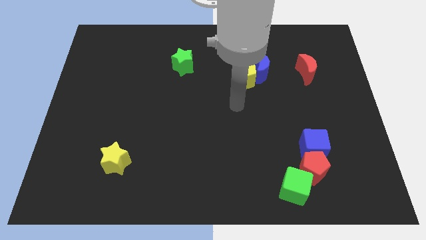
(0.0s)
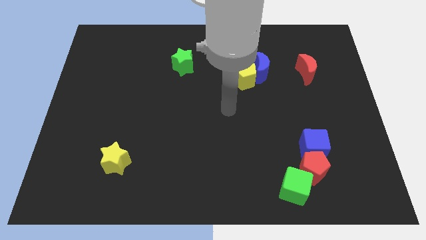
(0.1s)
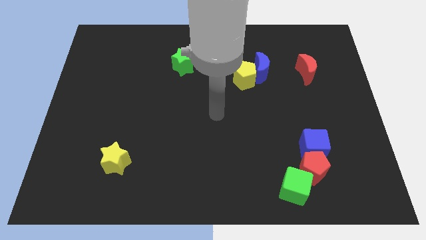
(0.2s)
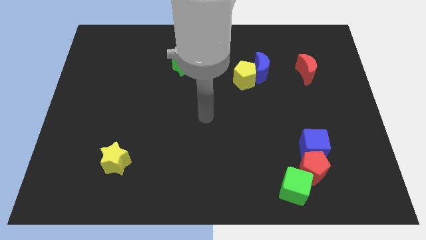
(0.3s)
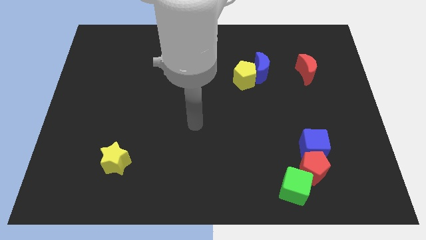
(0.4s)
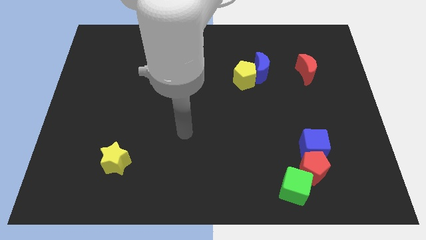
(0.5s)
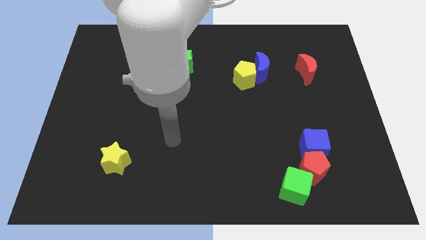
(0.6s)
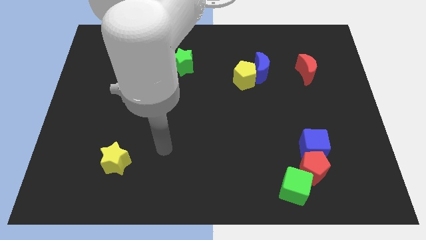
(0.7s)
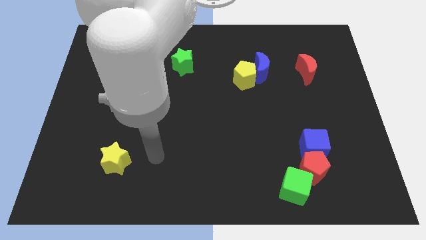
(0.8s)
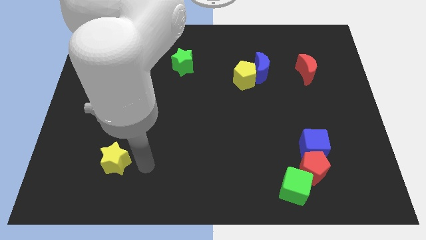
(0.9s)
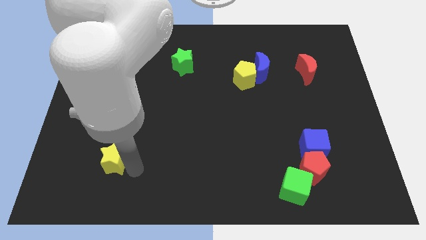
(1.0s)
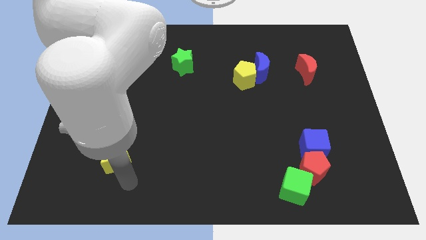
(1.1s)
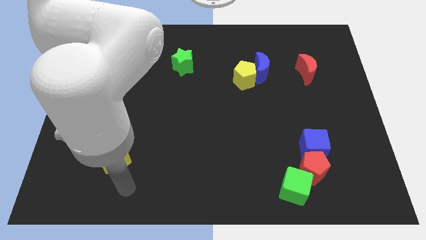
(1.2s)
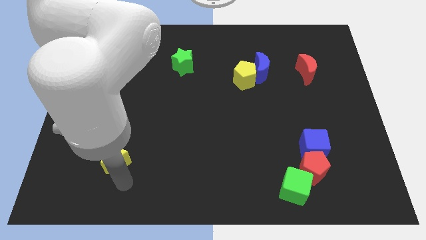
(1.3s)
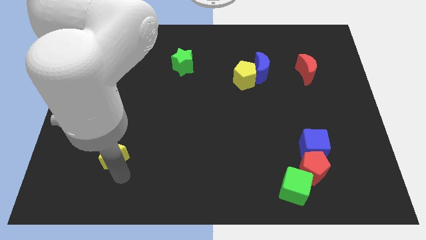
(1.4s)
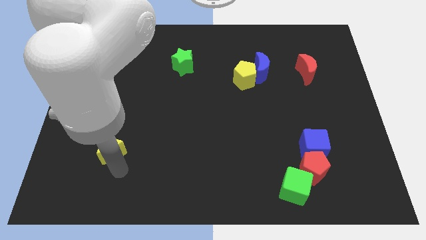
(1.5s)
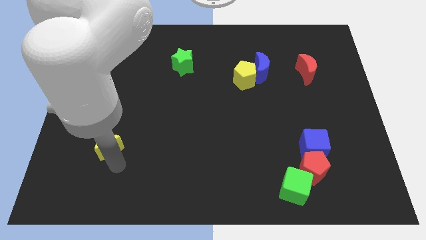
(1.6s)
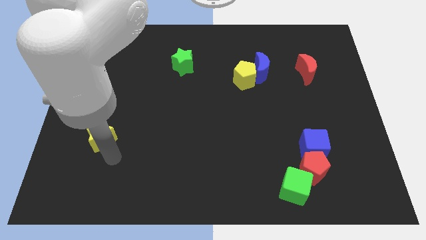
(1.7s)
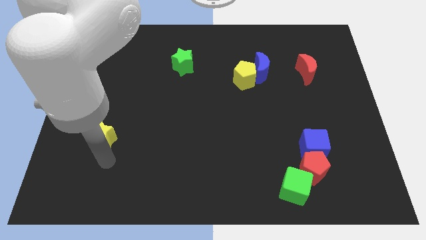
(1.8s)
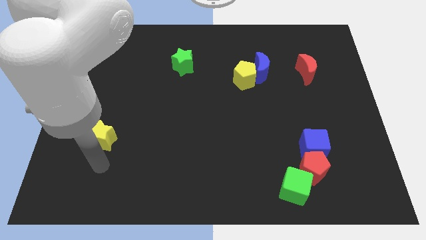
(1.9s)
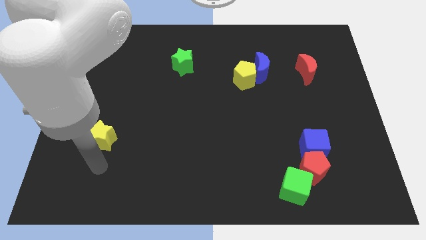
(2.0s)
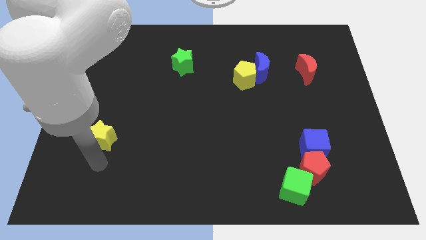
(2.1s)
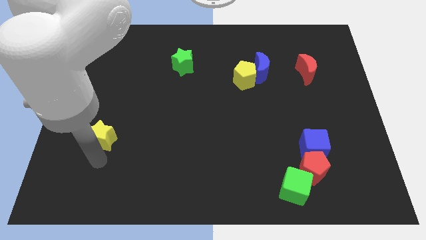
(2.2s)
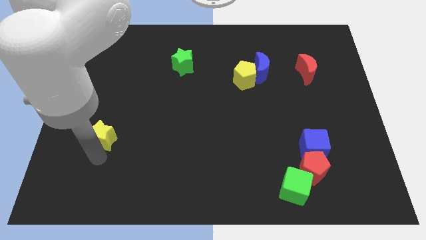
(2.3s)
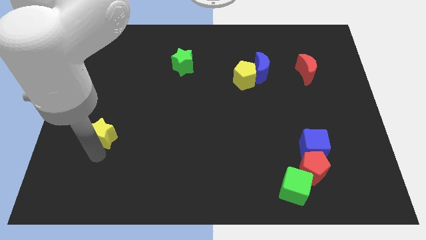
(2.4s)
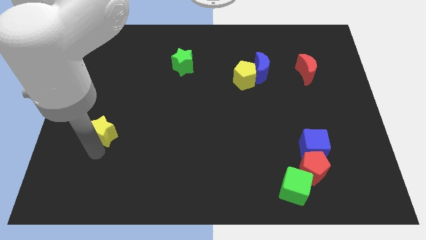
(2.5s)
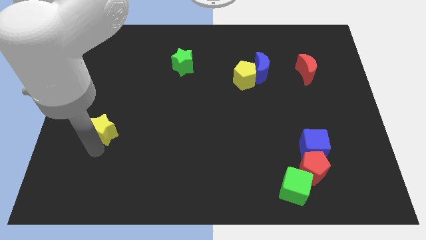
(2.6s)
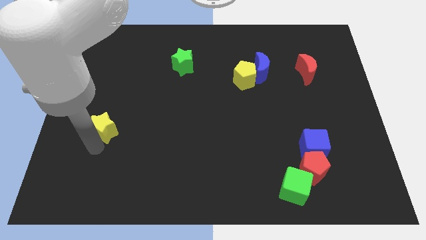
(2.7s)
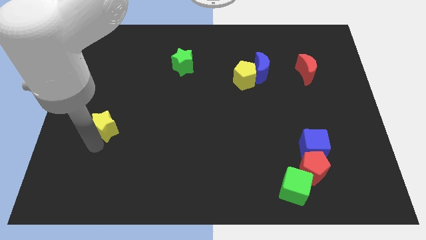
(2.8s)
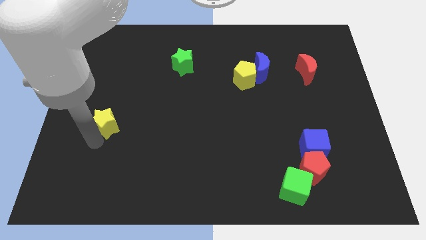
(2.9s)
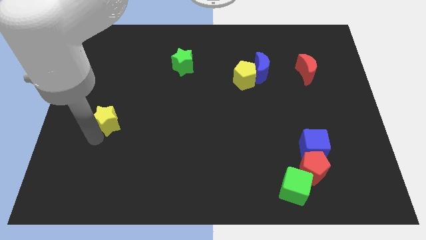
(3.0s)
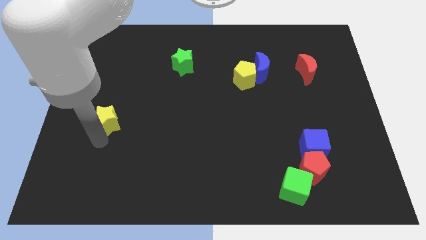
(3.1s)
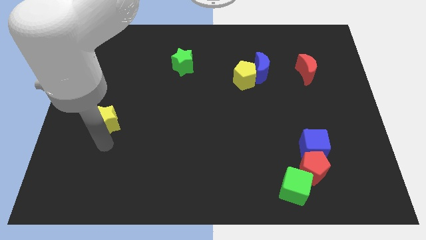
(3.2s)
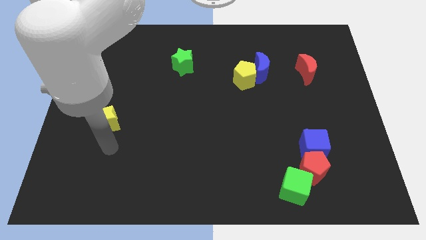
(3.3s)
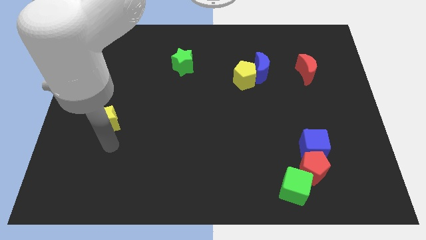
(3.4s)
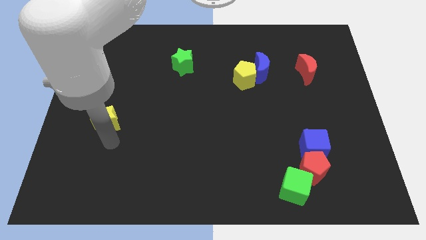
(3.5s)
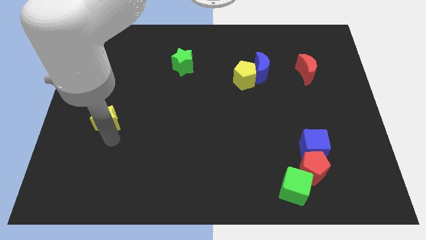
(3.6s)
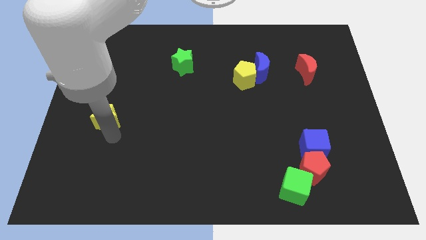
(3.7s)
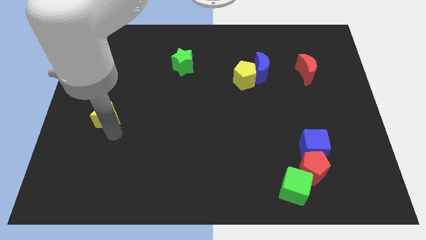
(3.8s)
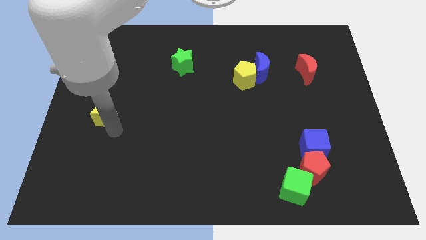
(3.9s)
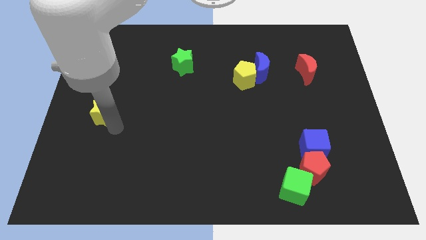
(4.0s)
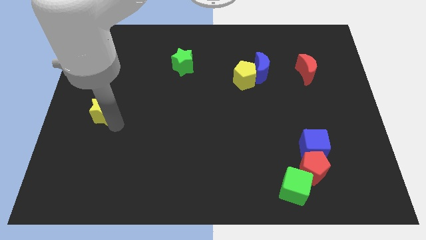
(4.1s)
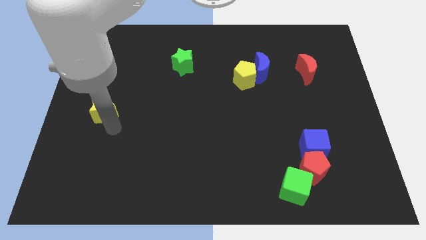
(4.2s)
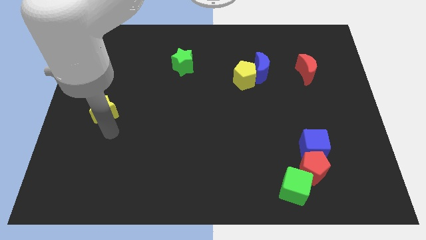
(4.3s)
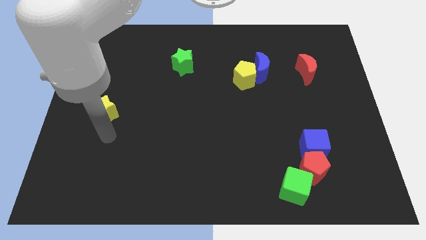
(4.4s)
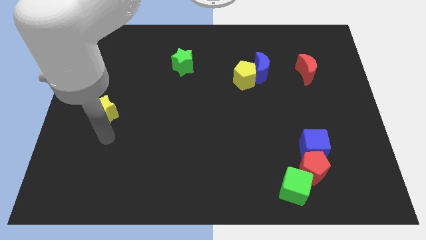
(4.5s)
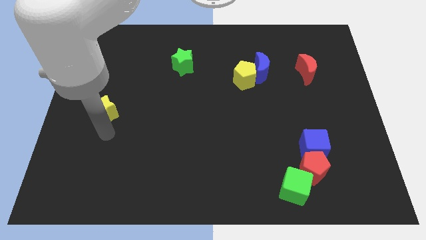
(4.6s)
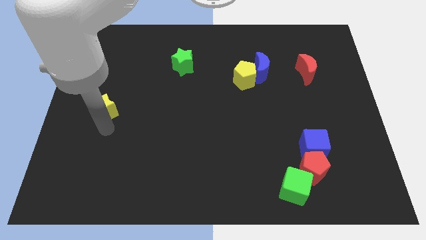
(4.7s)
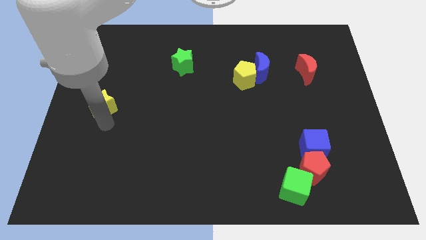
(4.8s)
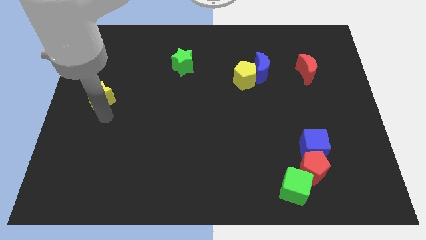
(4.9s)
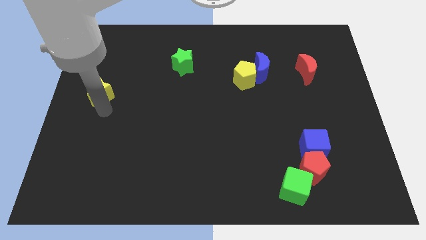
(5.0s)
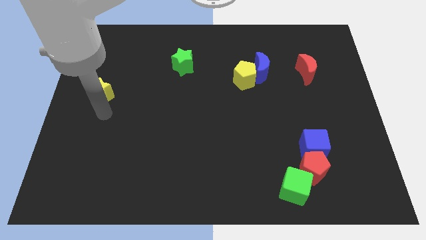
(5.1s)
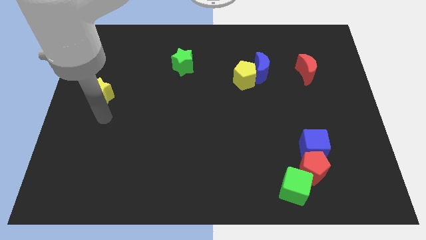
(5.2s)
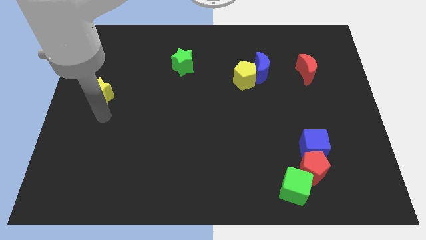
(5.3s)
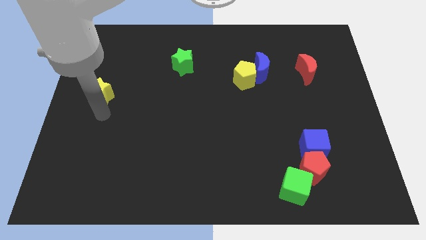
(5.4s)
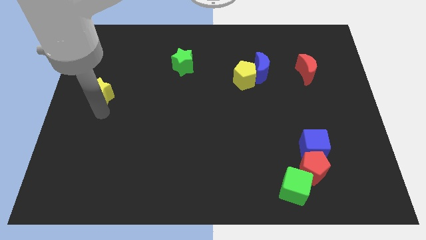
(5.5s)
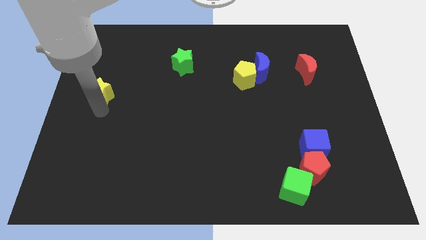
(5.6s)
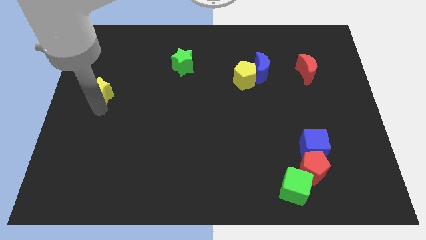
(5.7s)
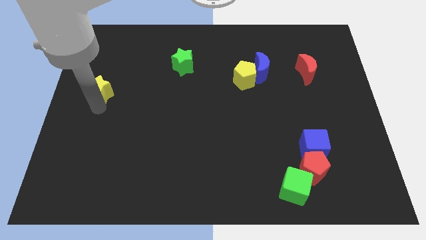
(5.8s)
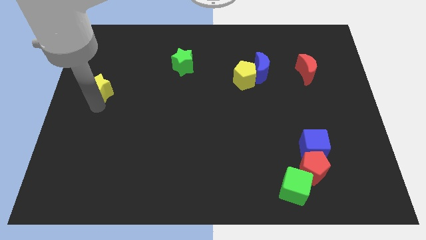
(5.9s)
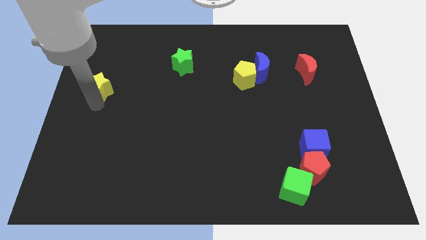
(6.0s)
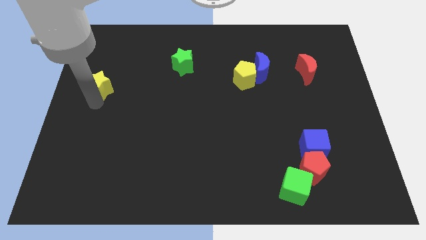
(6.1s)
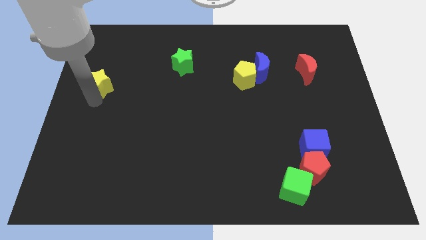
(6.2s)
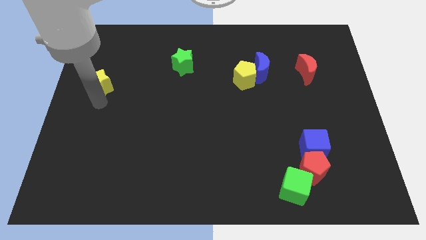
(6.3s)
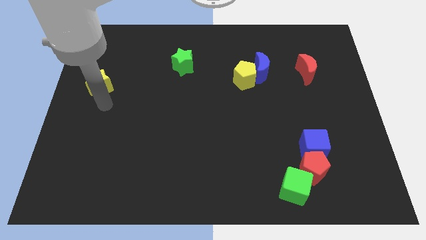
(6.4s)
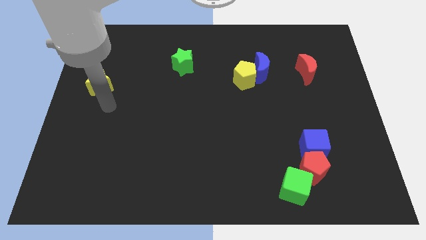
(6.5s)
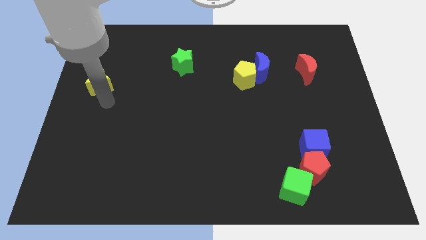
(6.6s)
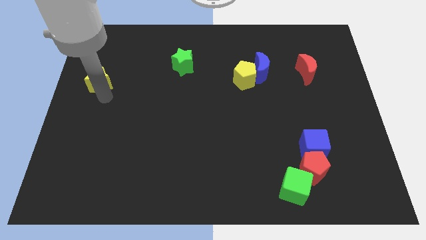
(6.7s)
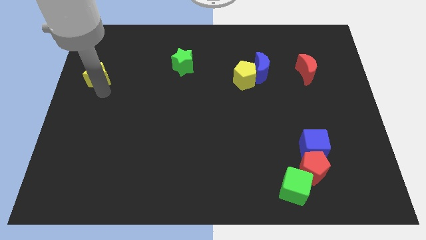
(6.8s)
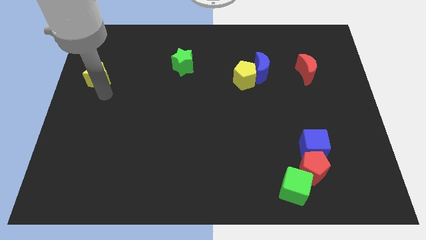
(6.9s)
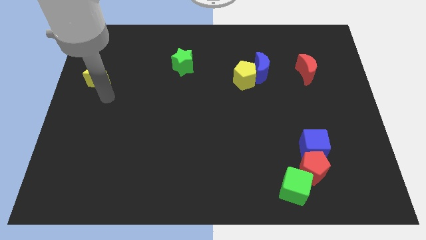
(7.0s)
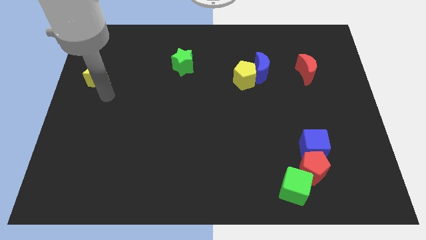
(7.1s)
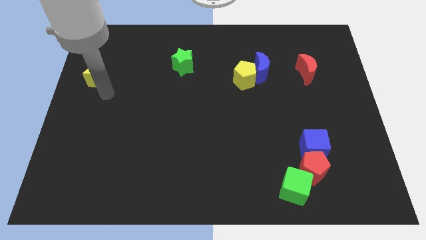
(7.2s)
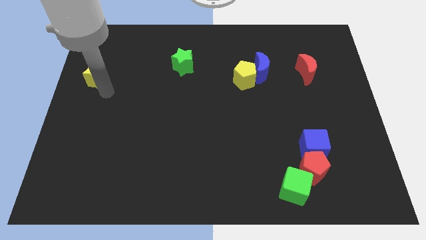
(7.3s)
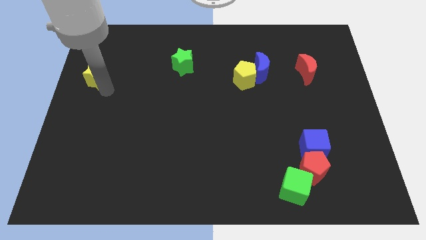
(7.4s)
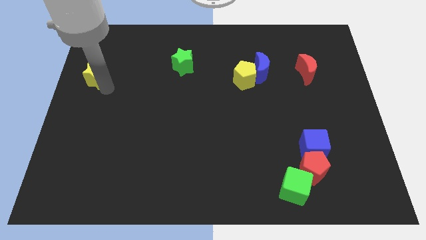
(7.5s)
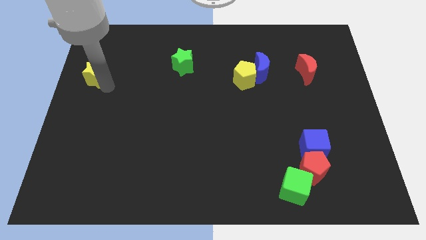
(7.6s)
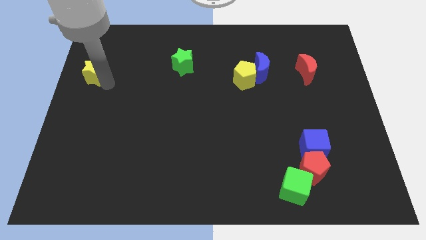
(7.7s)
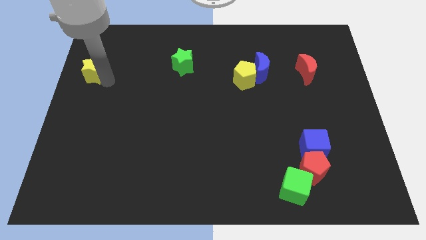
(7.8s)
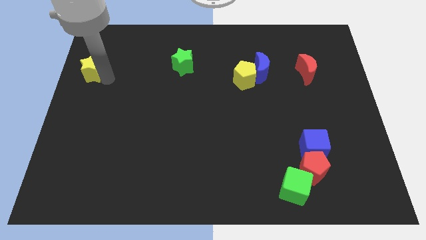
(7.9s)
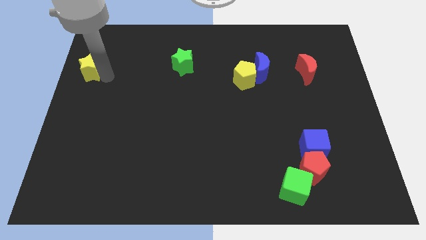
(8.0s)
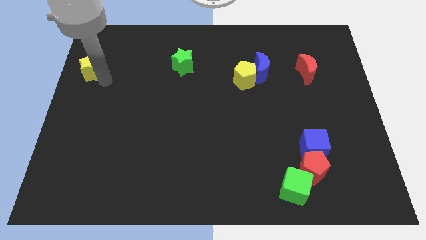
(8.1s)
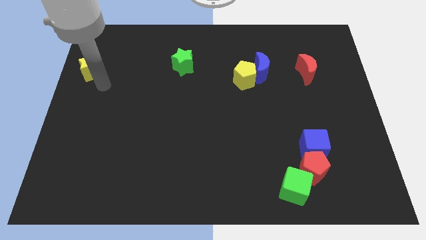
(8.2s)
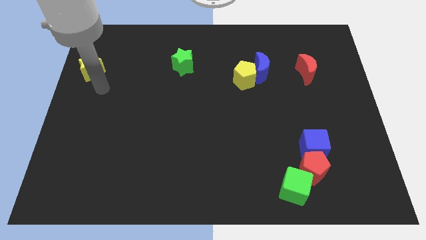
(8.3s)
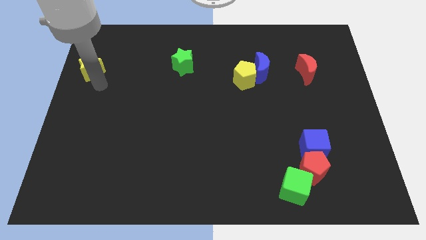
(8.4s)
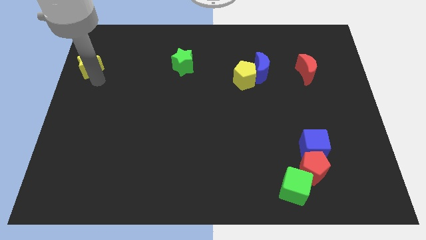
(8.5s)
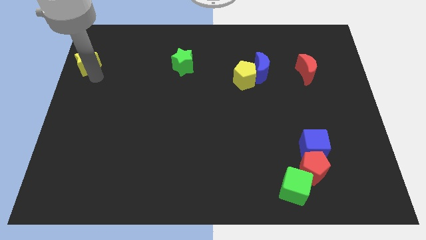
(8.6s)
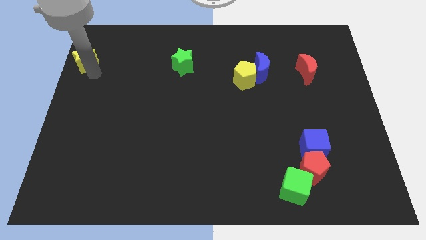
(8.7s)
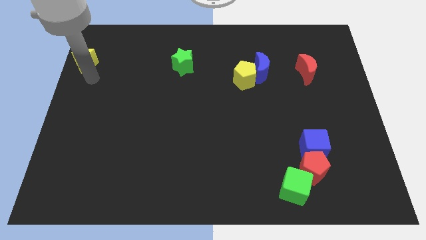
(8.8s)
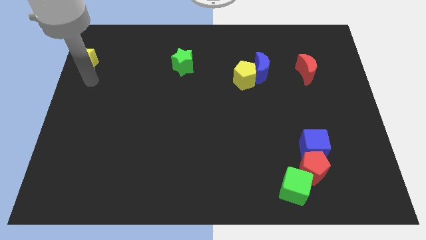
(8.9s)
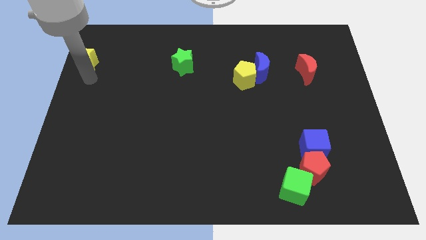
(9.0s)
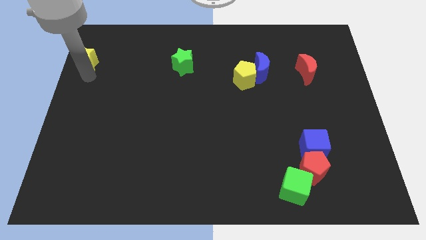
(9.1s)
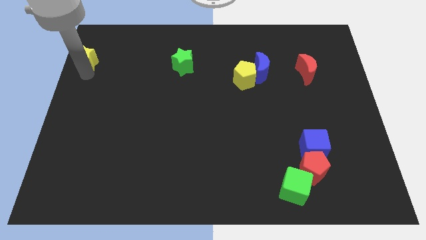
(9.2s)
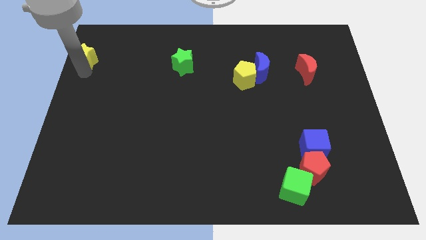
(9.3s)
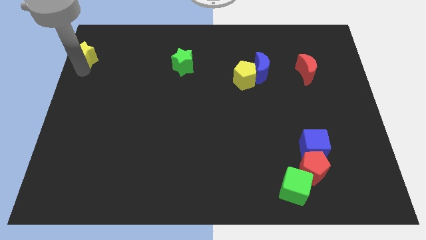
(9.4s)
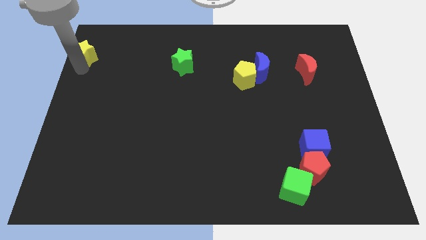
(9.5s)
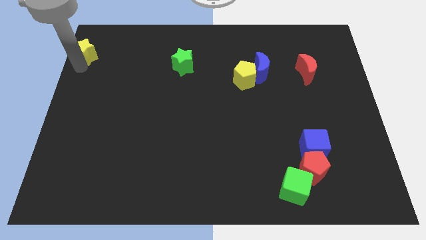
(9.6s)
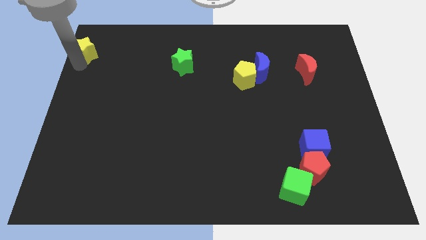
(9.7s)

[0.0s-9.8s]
move the yellow star to the upper left corner
